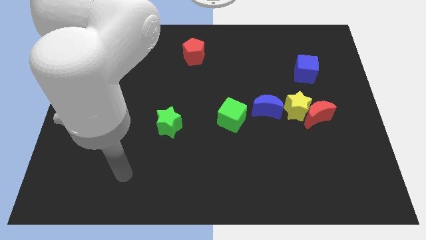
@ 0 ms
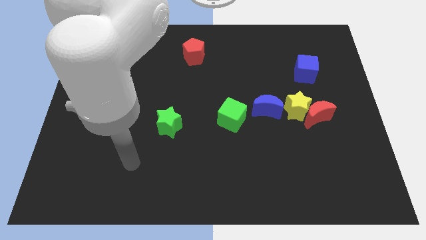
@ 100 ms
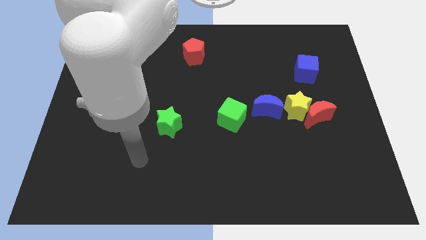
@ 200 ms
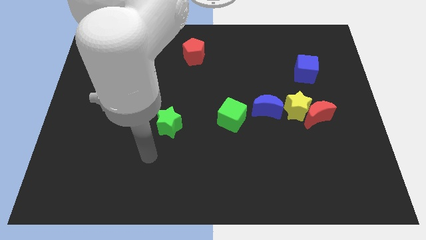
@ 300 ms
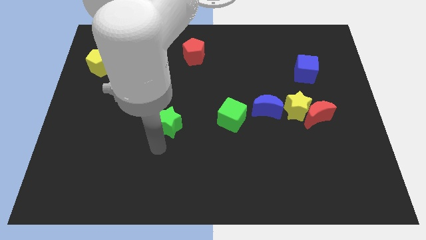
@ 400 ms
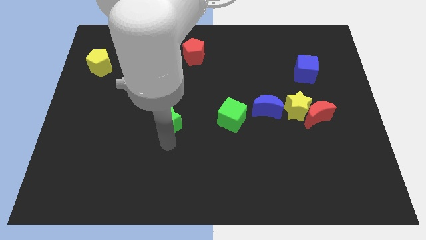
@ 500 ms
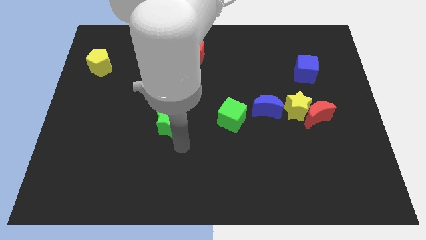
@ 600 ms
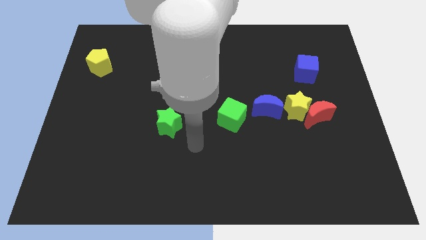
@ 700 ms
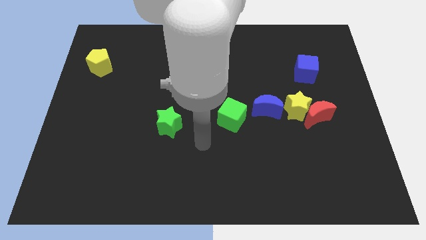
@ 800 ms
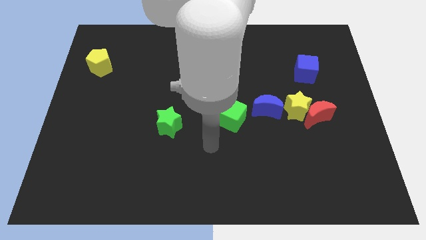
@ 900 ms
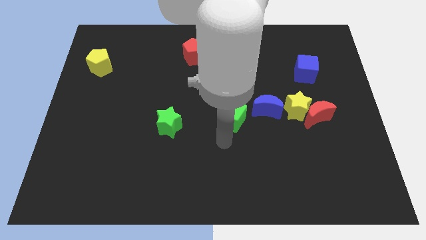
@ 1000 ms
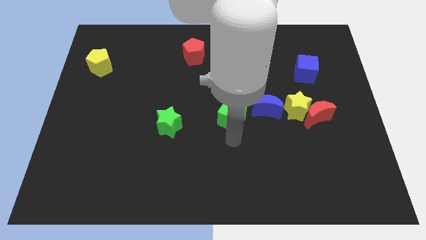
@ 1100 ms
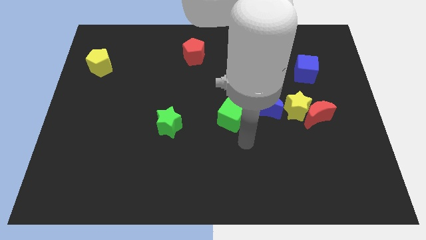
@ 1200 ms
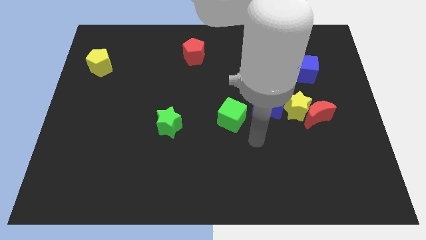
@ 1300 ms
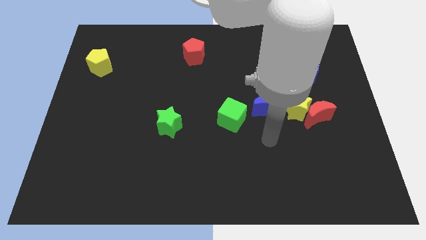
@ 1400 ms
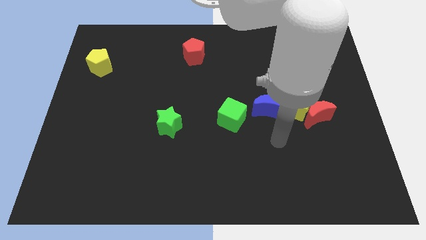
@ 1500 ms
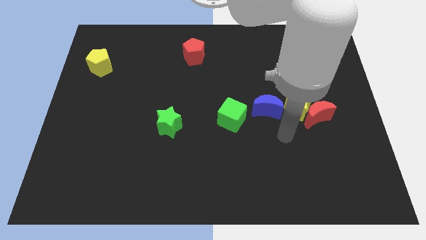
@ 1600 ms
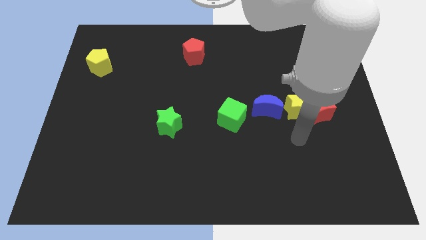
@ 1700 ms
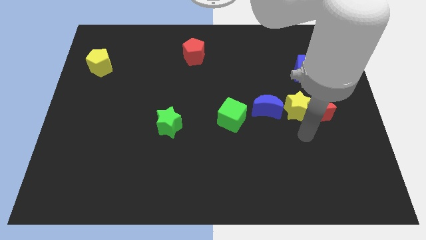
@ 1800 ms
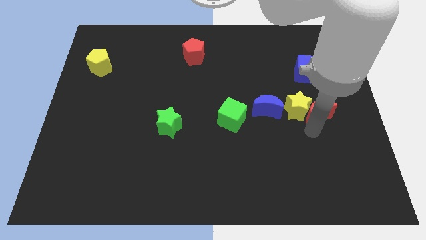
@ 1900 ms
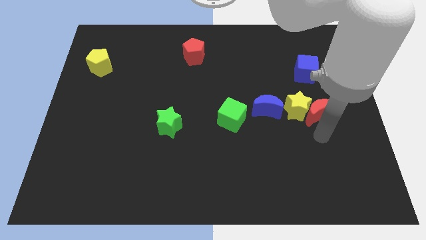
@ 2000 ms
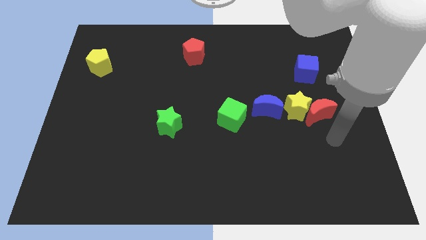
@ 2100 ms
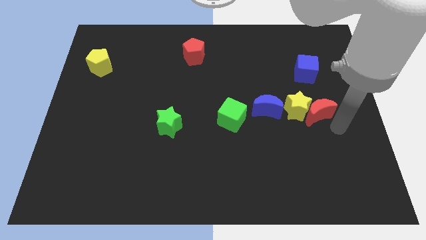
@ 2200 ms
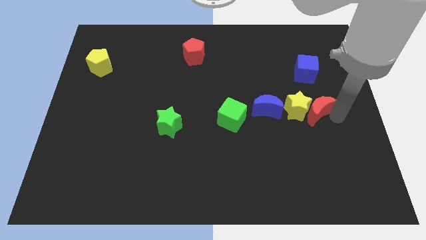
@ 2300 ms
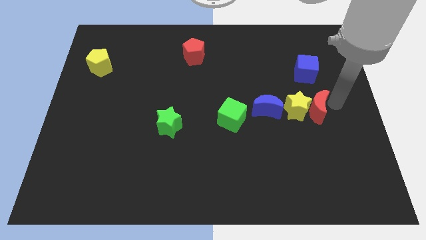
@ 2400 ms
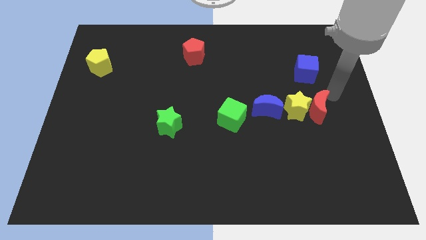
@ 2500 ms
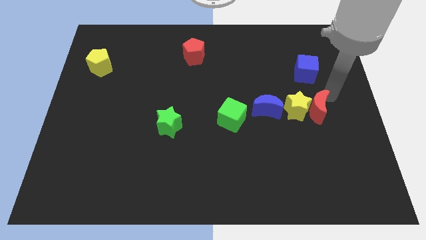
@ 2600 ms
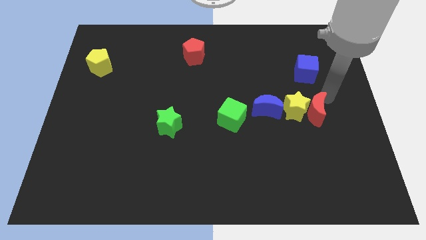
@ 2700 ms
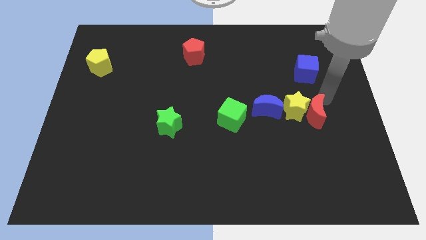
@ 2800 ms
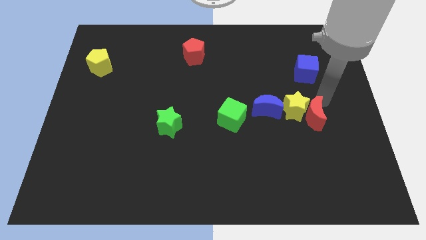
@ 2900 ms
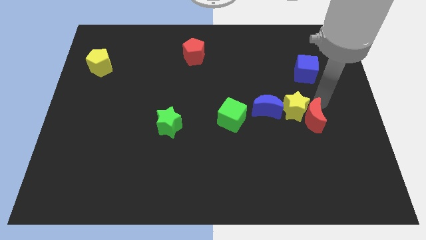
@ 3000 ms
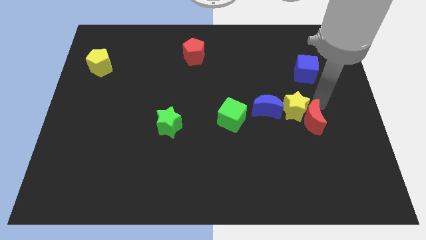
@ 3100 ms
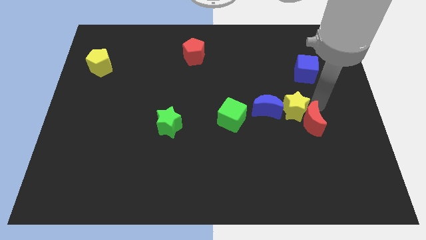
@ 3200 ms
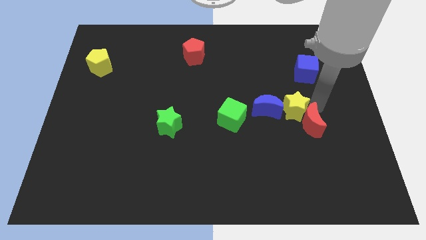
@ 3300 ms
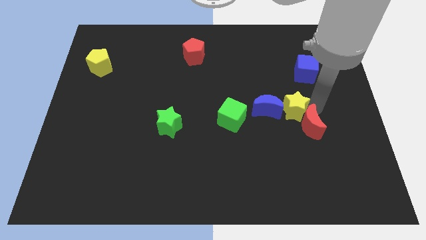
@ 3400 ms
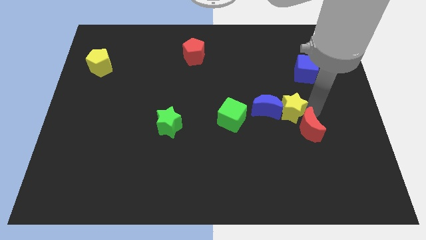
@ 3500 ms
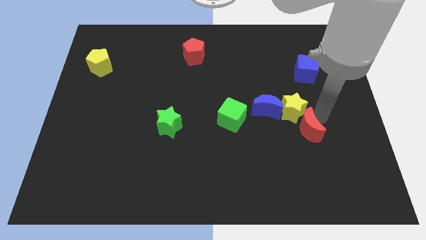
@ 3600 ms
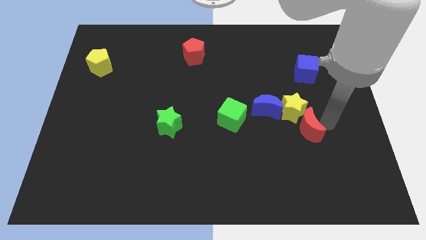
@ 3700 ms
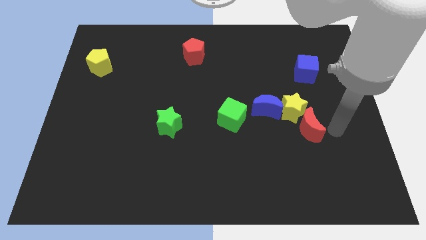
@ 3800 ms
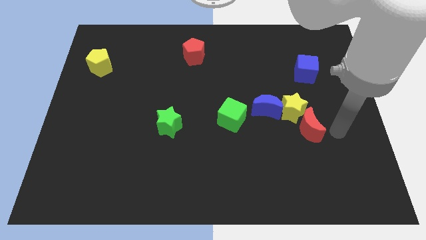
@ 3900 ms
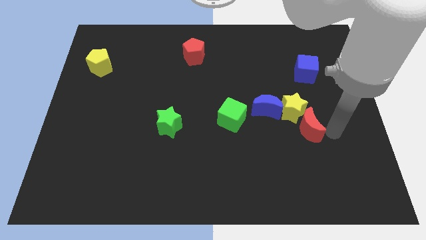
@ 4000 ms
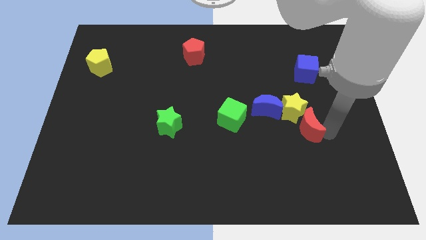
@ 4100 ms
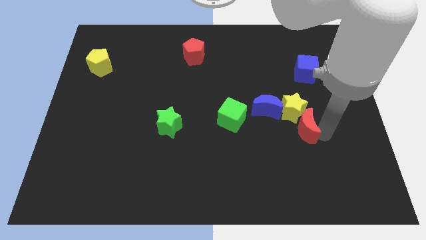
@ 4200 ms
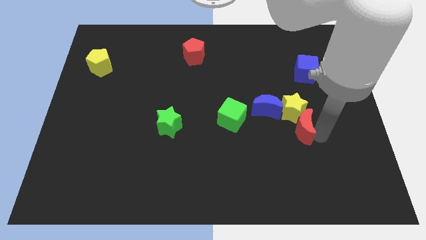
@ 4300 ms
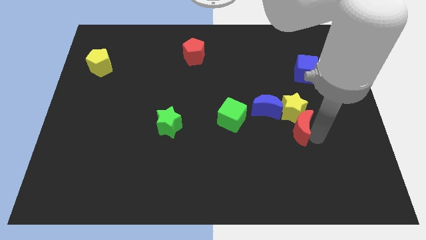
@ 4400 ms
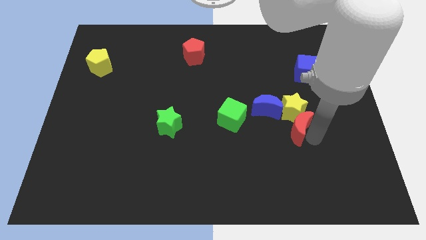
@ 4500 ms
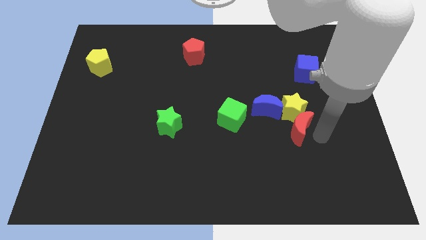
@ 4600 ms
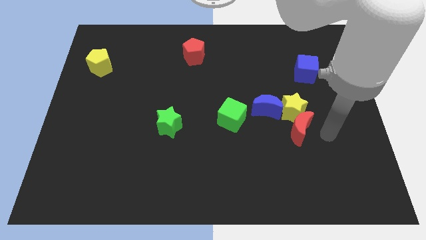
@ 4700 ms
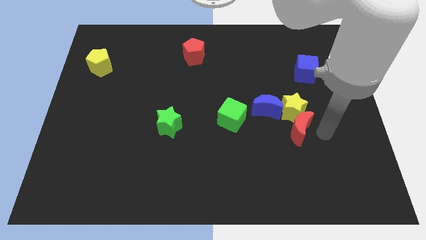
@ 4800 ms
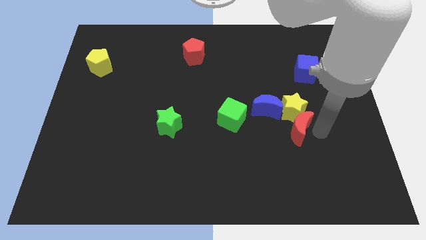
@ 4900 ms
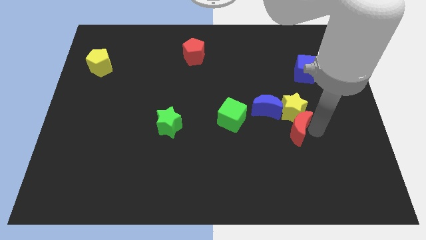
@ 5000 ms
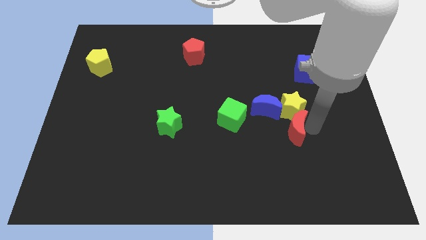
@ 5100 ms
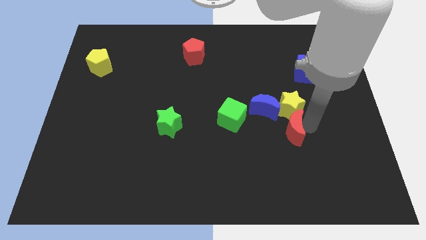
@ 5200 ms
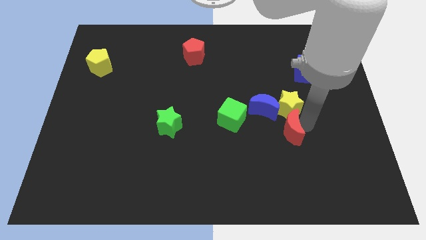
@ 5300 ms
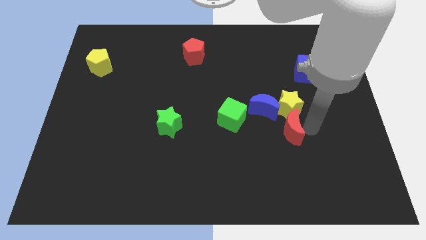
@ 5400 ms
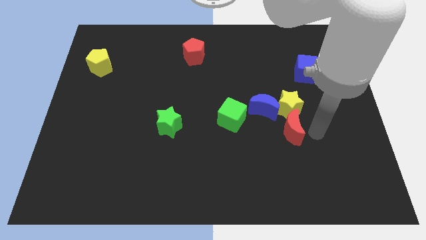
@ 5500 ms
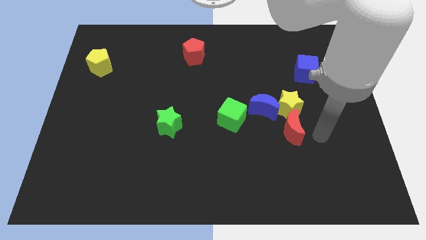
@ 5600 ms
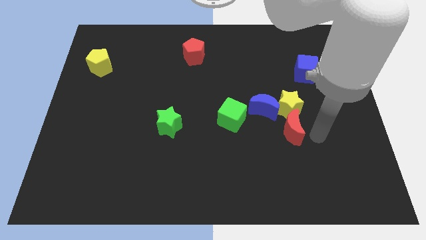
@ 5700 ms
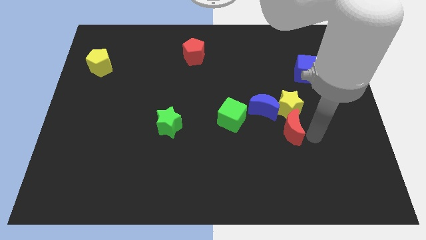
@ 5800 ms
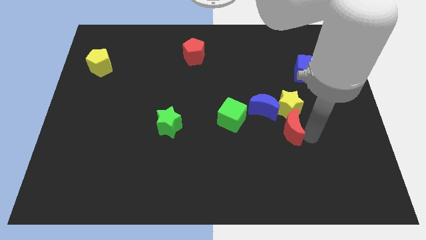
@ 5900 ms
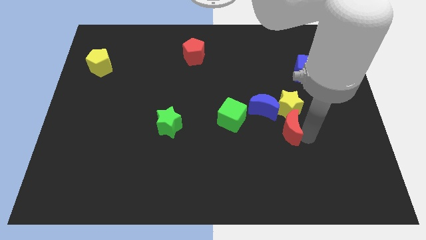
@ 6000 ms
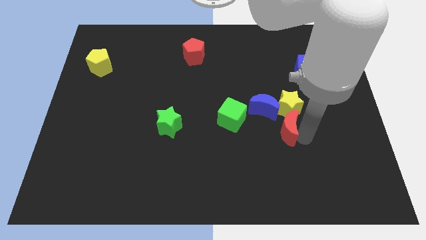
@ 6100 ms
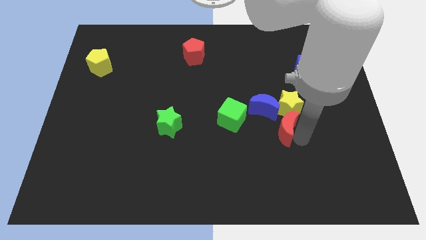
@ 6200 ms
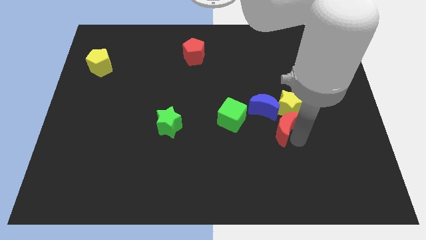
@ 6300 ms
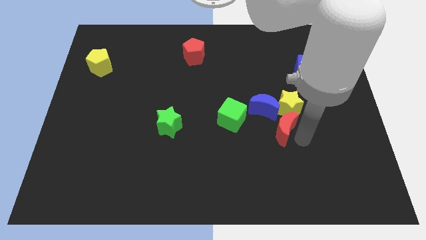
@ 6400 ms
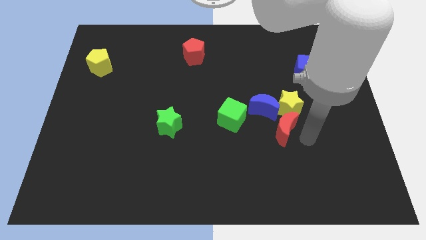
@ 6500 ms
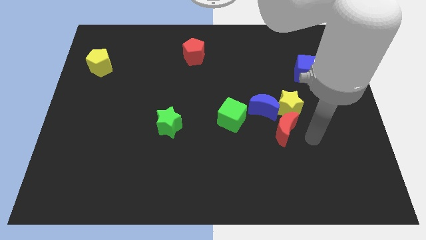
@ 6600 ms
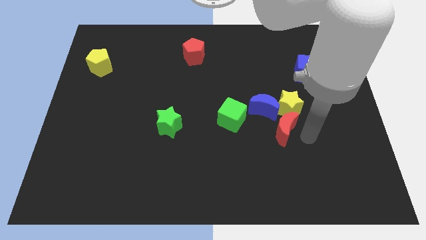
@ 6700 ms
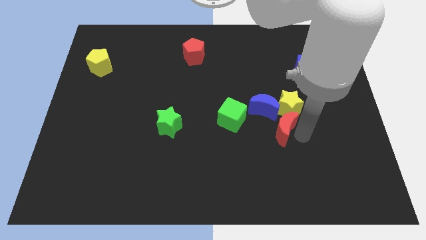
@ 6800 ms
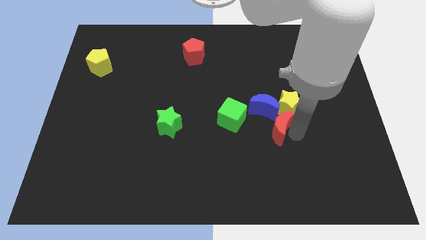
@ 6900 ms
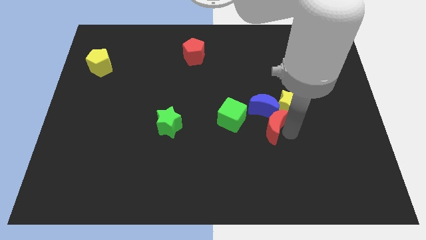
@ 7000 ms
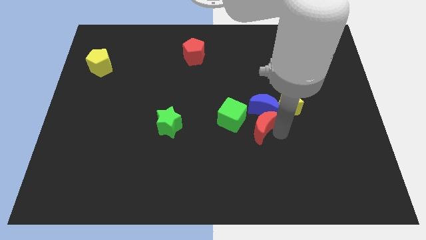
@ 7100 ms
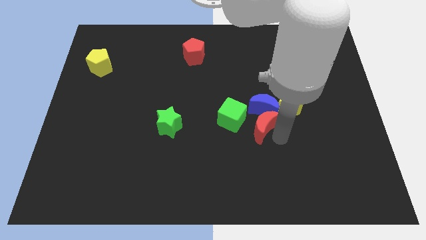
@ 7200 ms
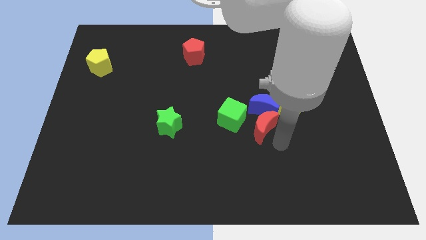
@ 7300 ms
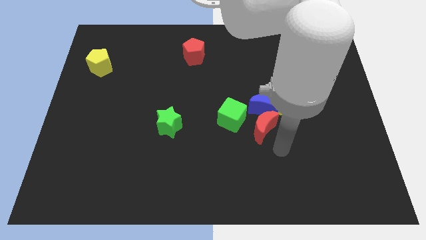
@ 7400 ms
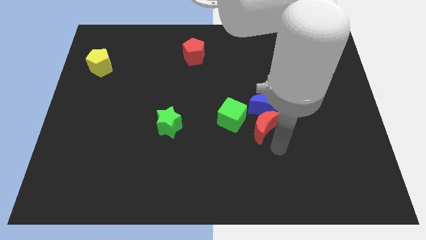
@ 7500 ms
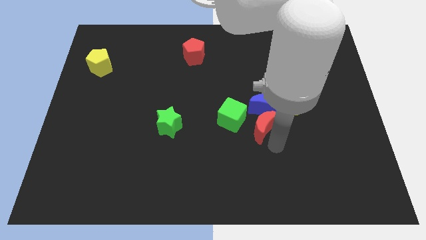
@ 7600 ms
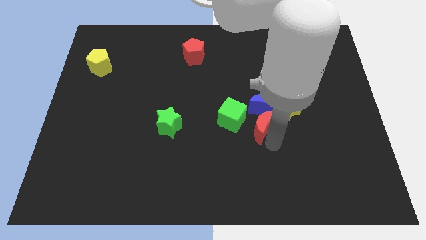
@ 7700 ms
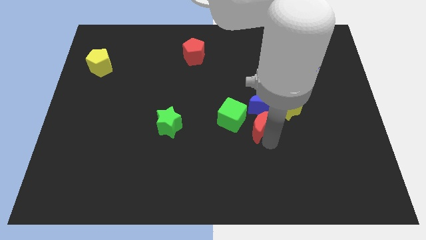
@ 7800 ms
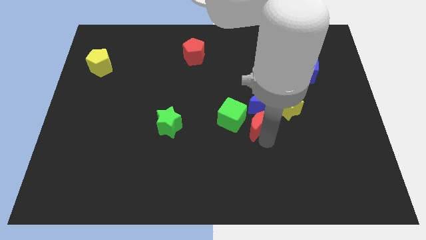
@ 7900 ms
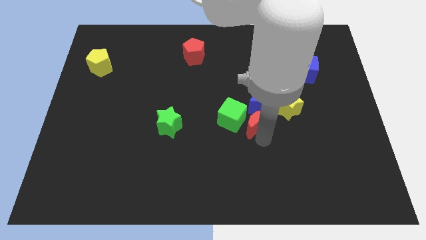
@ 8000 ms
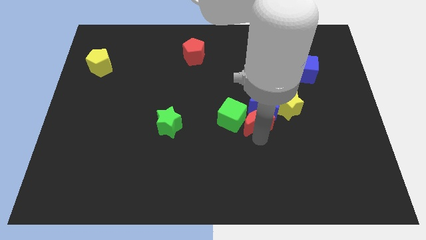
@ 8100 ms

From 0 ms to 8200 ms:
put the red moon just left of the yellow star
